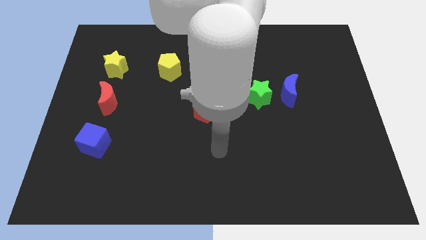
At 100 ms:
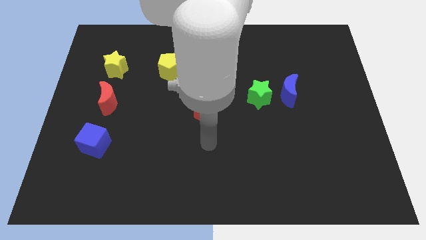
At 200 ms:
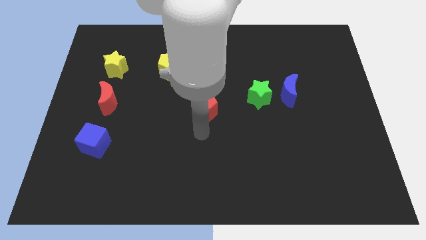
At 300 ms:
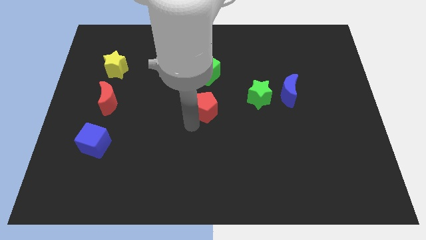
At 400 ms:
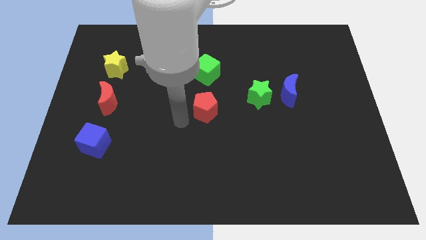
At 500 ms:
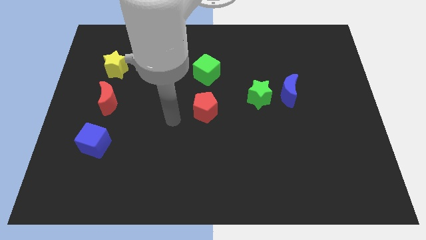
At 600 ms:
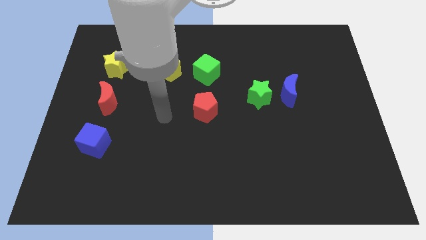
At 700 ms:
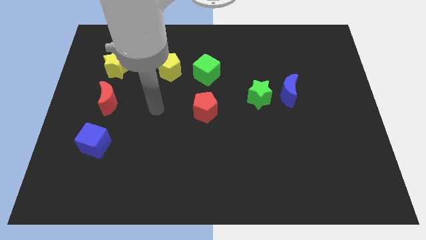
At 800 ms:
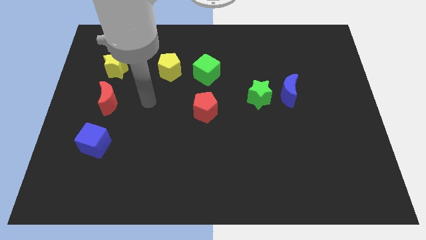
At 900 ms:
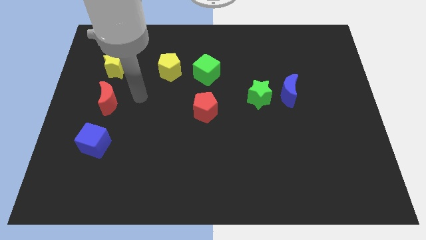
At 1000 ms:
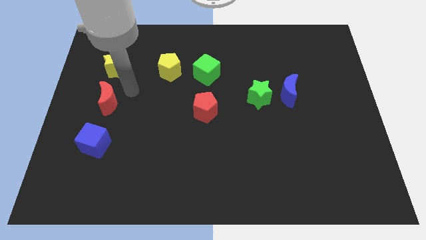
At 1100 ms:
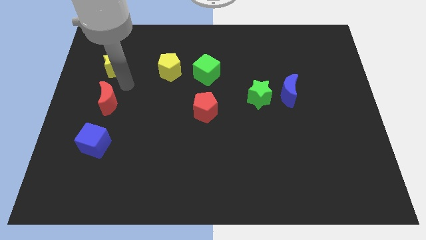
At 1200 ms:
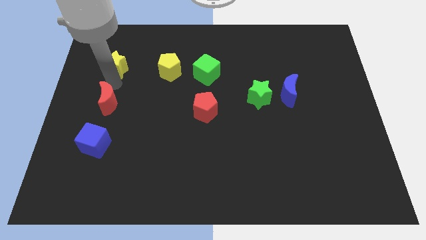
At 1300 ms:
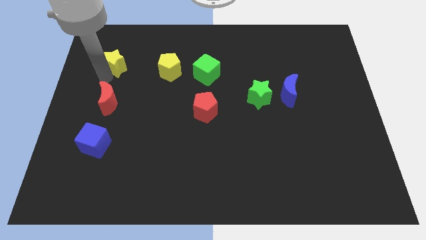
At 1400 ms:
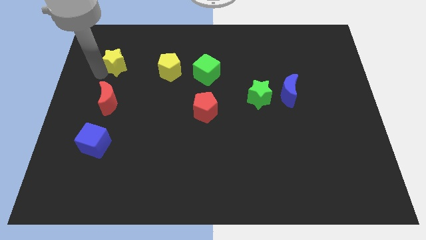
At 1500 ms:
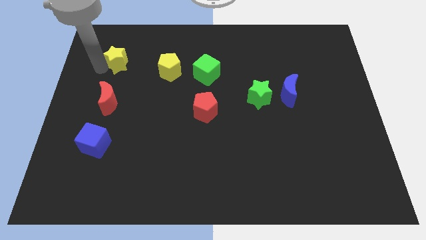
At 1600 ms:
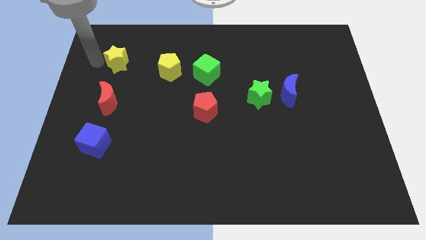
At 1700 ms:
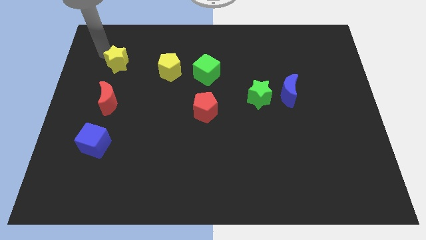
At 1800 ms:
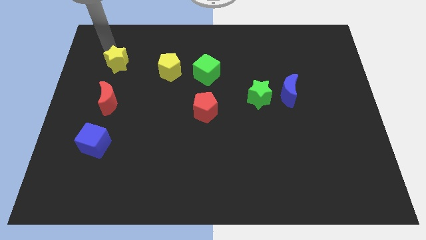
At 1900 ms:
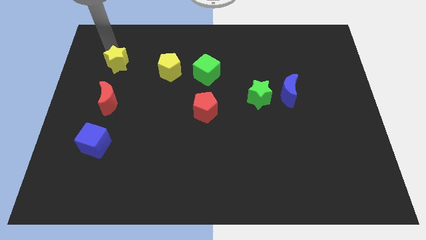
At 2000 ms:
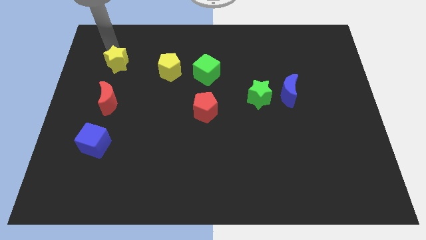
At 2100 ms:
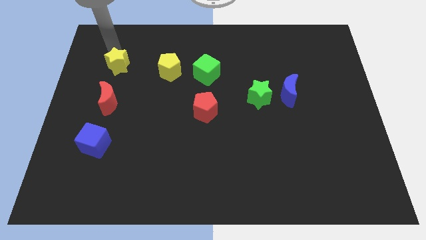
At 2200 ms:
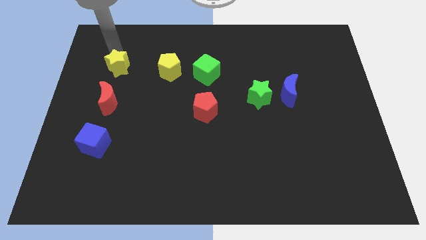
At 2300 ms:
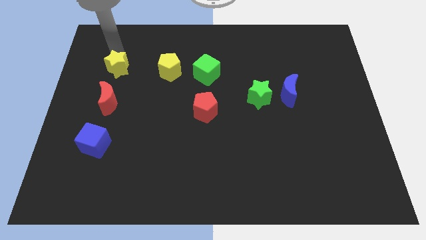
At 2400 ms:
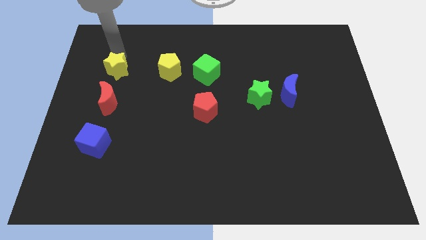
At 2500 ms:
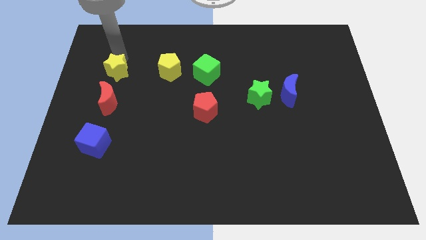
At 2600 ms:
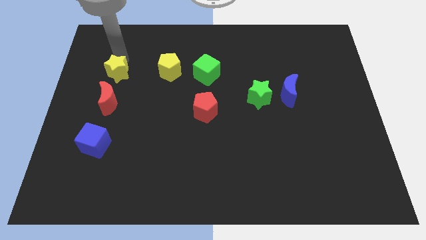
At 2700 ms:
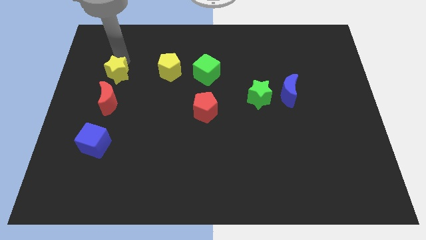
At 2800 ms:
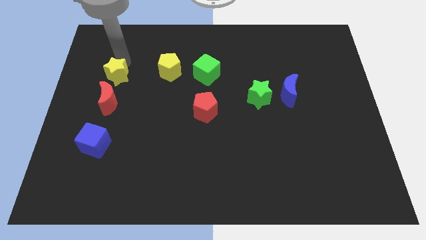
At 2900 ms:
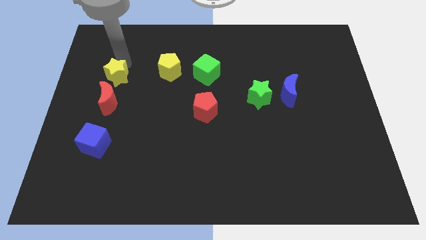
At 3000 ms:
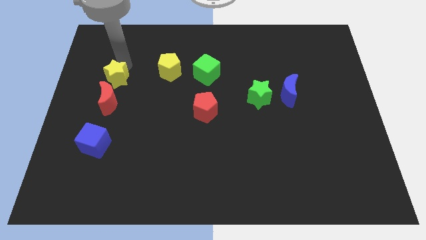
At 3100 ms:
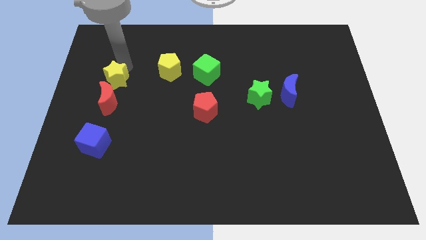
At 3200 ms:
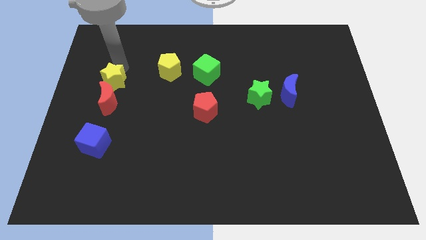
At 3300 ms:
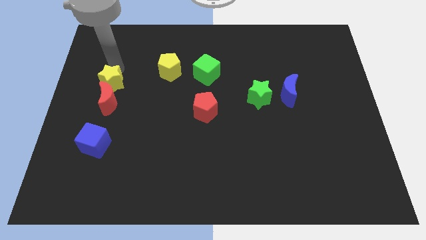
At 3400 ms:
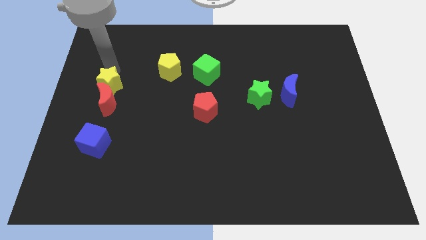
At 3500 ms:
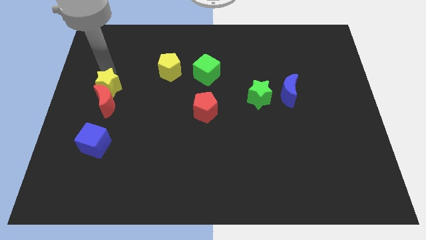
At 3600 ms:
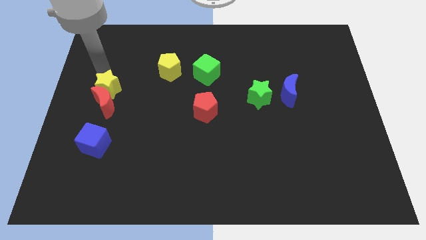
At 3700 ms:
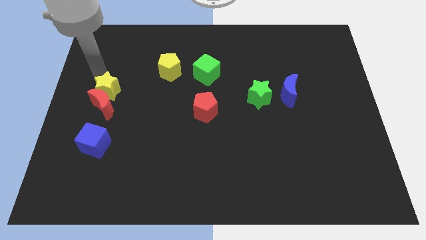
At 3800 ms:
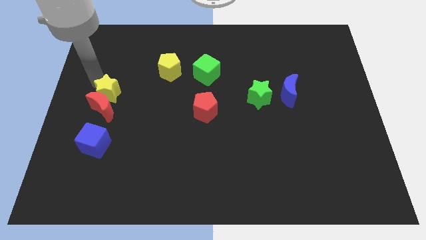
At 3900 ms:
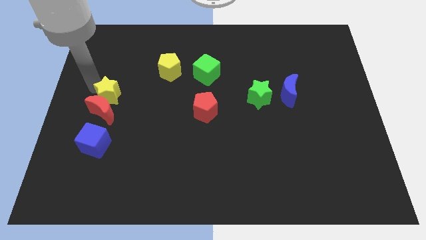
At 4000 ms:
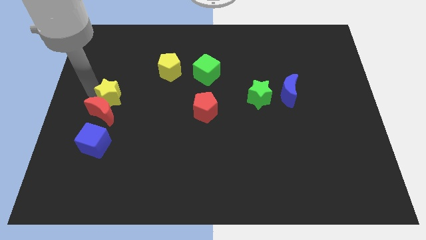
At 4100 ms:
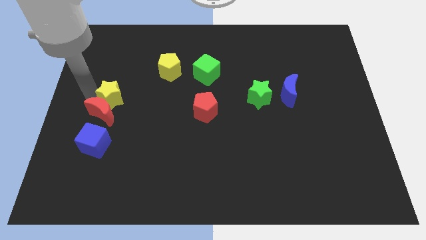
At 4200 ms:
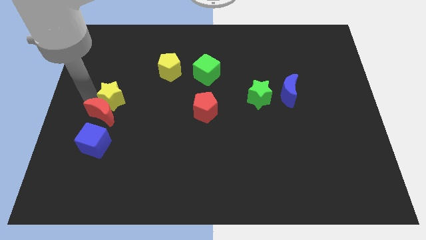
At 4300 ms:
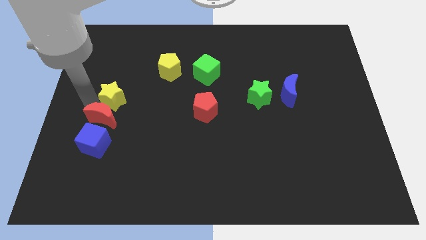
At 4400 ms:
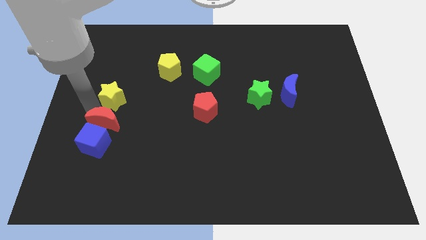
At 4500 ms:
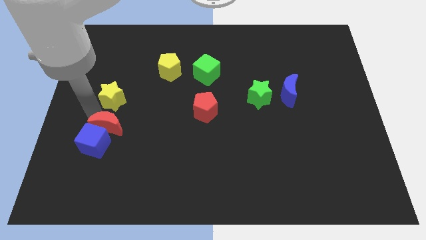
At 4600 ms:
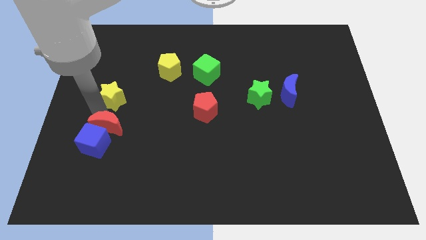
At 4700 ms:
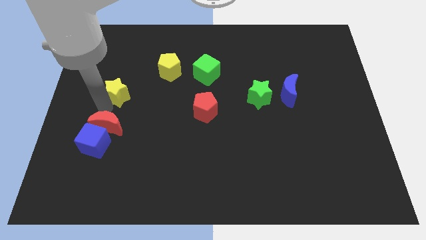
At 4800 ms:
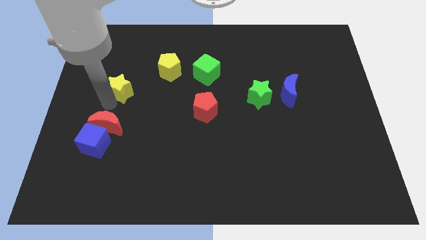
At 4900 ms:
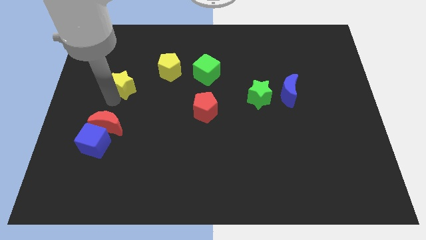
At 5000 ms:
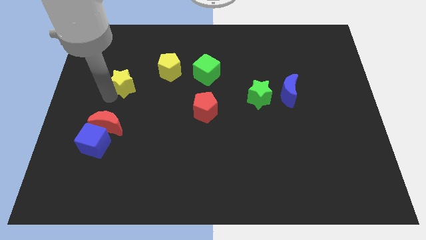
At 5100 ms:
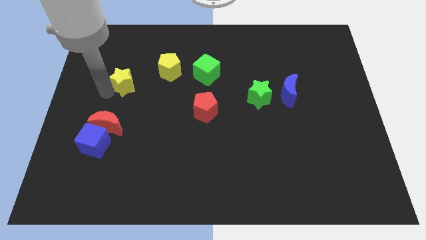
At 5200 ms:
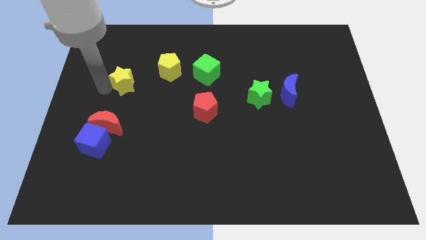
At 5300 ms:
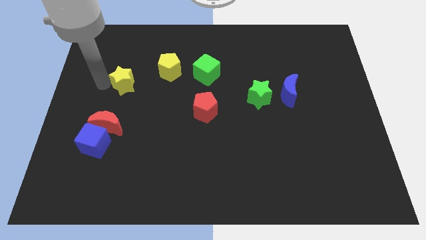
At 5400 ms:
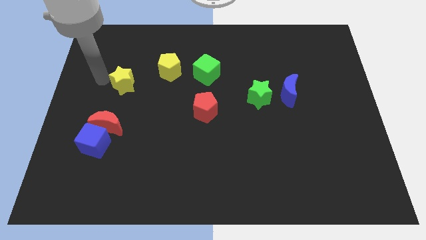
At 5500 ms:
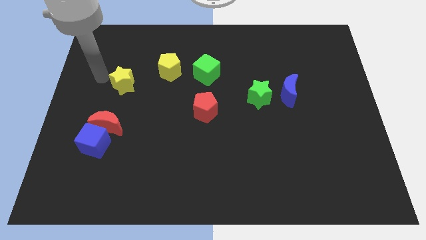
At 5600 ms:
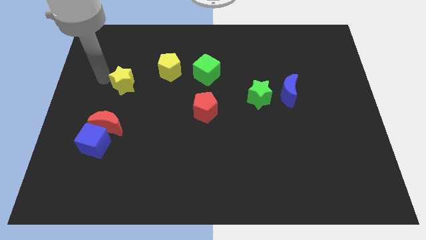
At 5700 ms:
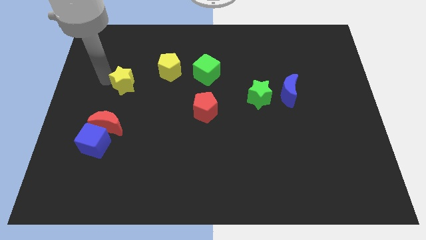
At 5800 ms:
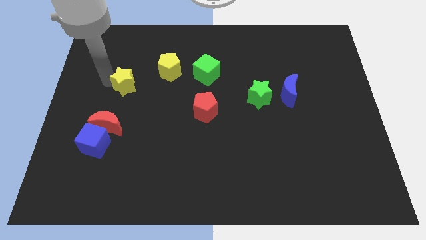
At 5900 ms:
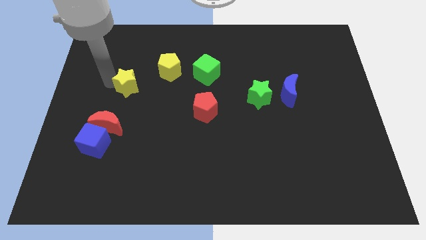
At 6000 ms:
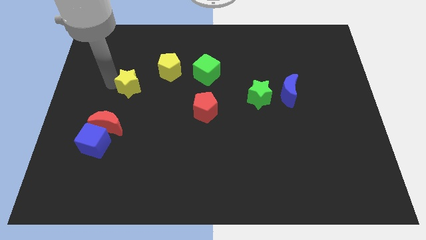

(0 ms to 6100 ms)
push the yellow star downwards and then to the right a little bit

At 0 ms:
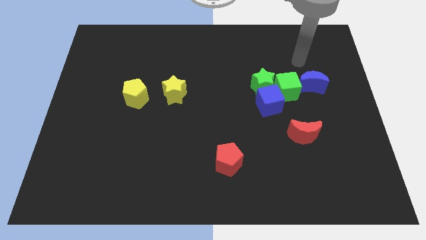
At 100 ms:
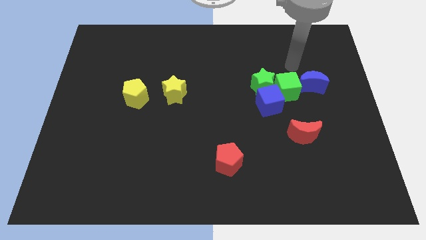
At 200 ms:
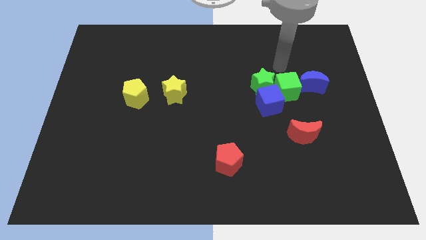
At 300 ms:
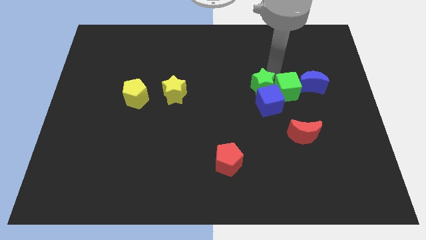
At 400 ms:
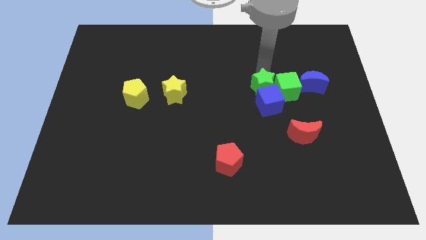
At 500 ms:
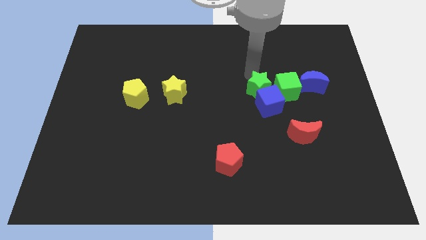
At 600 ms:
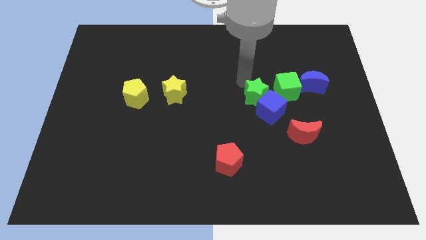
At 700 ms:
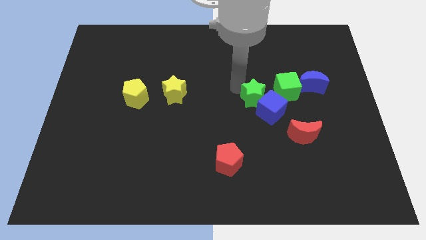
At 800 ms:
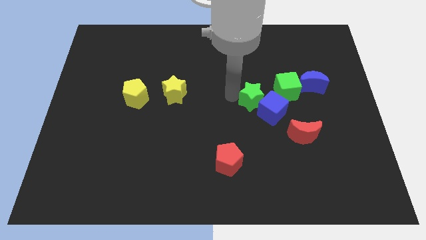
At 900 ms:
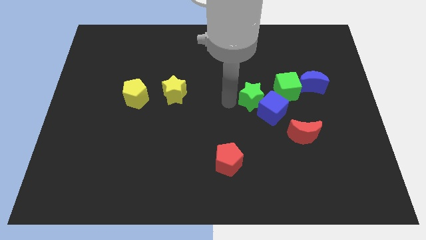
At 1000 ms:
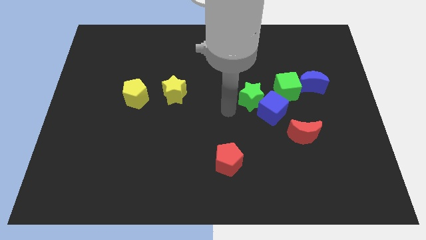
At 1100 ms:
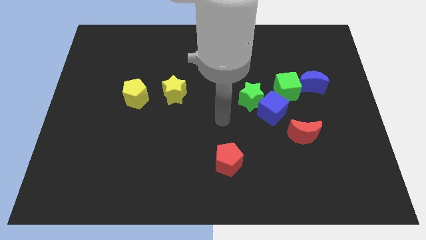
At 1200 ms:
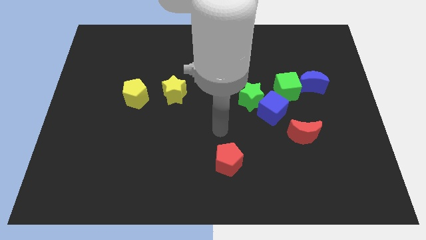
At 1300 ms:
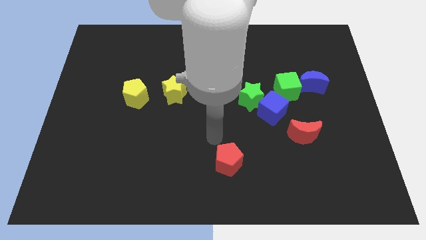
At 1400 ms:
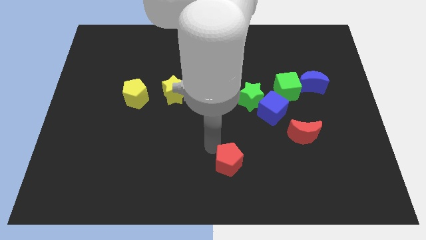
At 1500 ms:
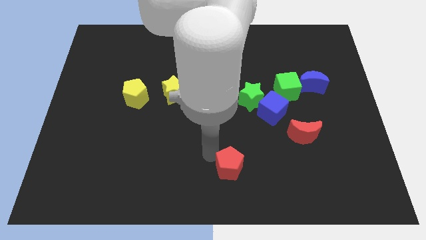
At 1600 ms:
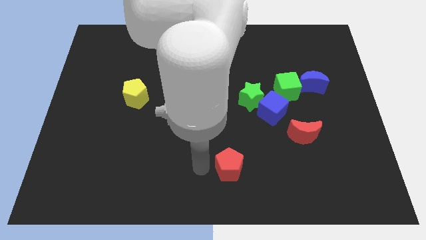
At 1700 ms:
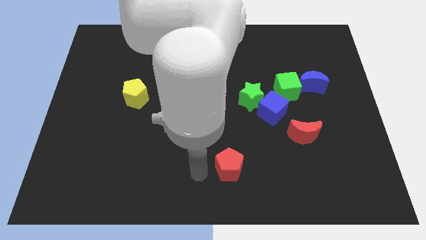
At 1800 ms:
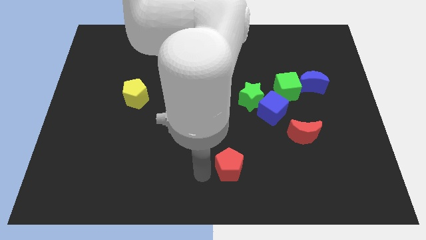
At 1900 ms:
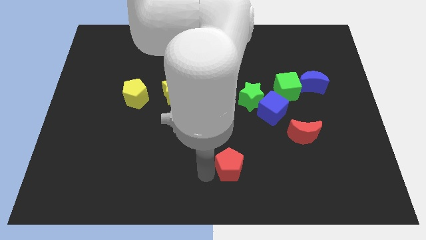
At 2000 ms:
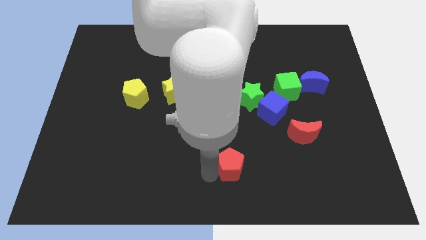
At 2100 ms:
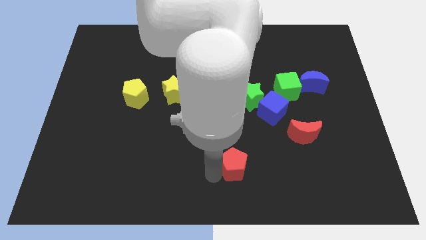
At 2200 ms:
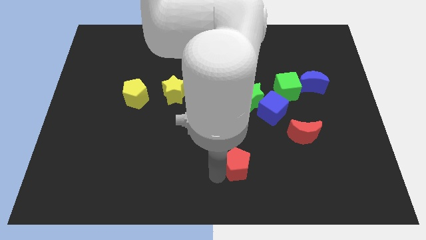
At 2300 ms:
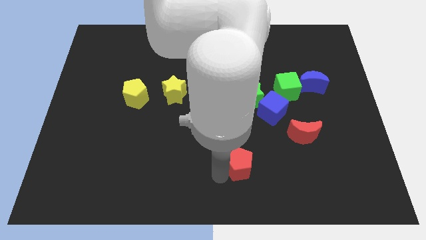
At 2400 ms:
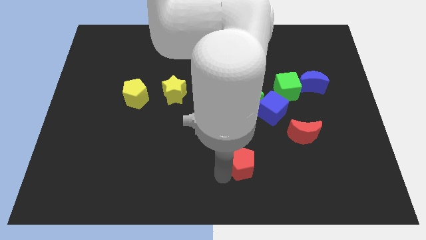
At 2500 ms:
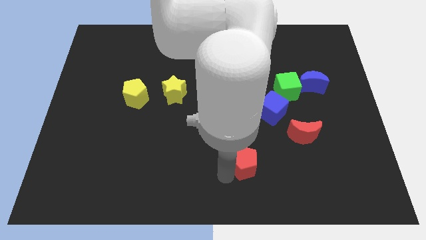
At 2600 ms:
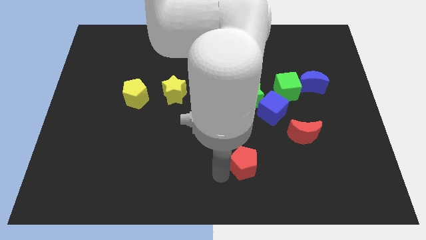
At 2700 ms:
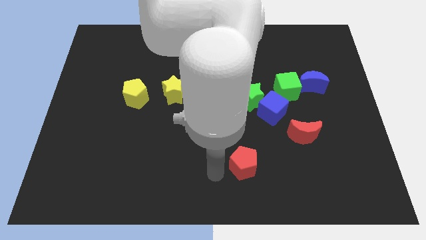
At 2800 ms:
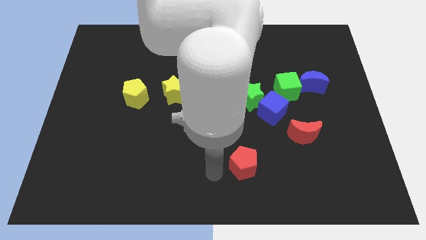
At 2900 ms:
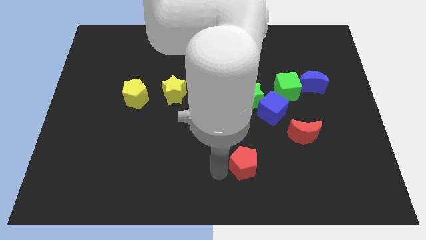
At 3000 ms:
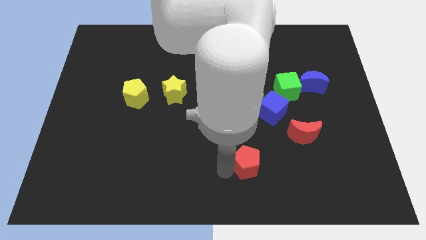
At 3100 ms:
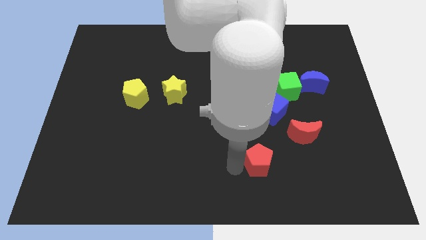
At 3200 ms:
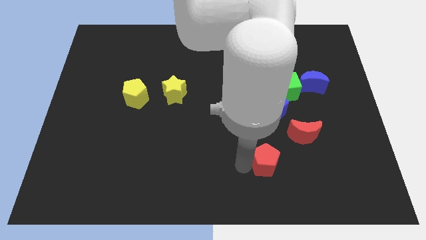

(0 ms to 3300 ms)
push the red pentagon to the right a little
